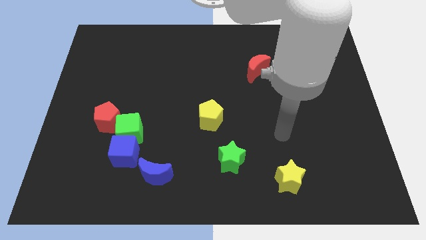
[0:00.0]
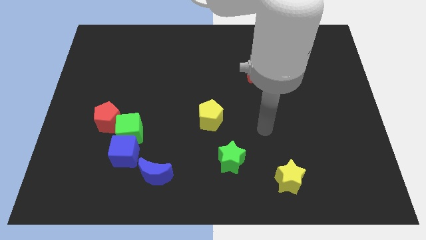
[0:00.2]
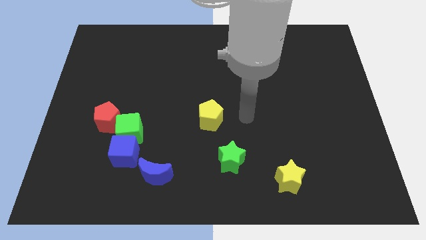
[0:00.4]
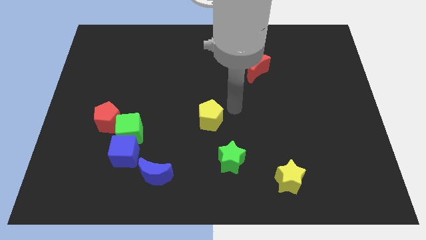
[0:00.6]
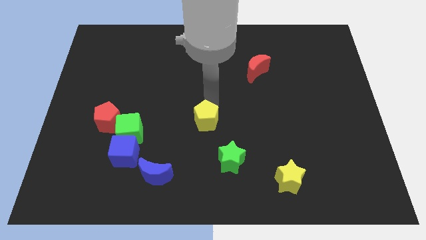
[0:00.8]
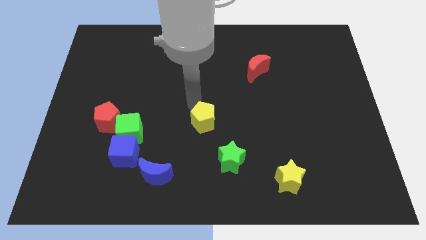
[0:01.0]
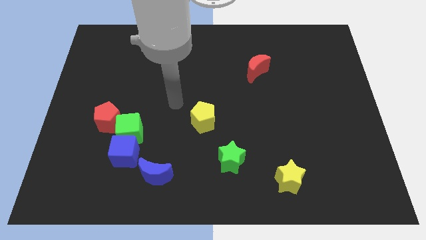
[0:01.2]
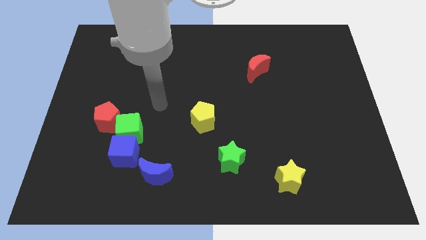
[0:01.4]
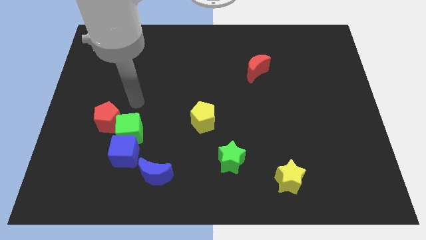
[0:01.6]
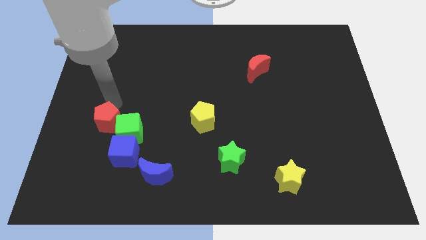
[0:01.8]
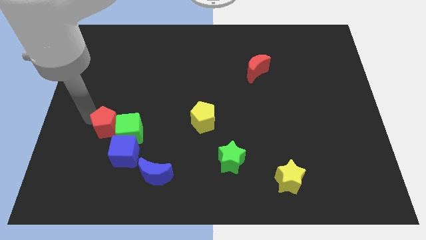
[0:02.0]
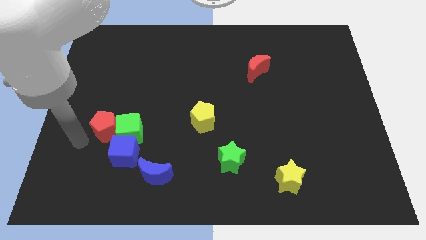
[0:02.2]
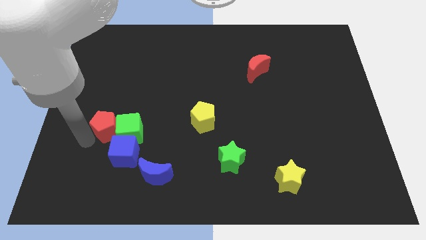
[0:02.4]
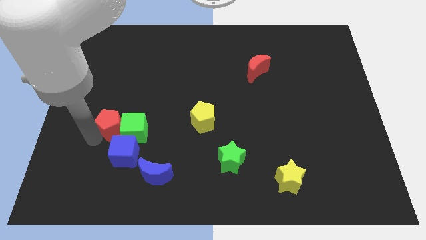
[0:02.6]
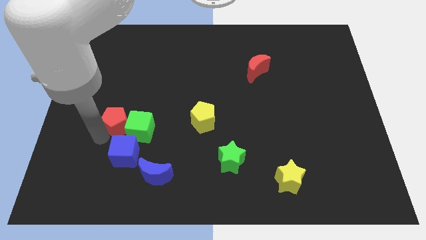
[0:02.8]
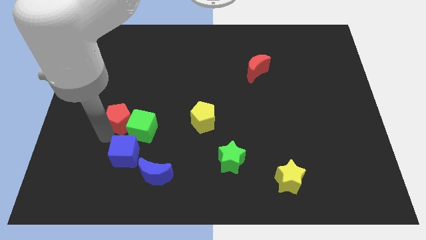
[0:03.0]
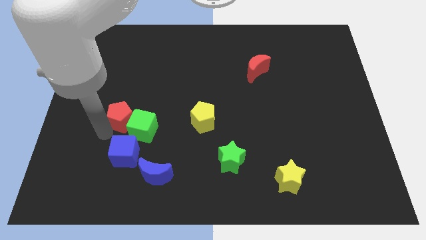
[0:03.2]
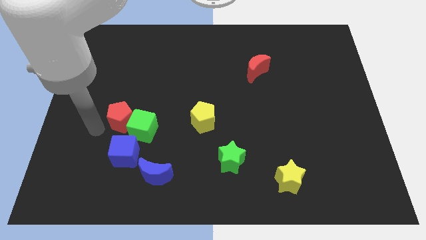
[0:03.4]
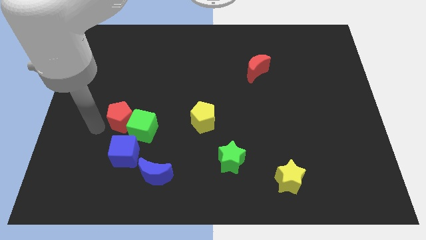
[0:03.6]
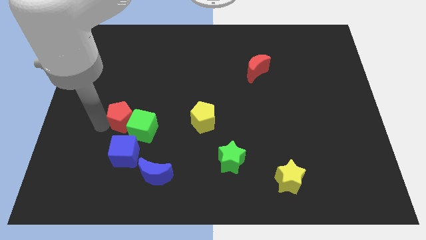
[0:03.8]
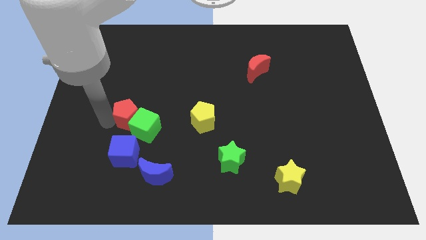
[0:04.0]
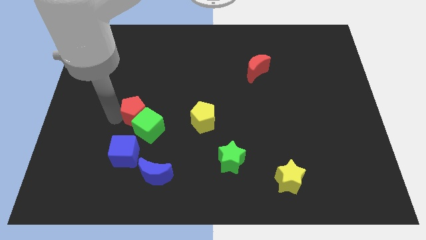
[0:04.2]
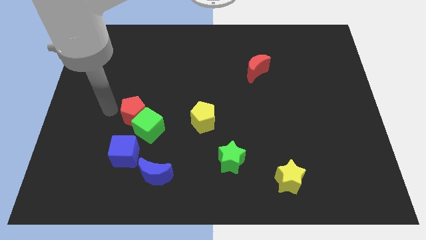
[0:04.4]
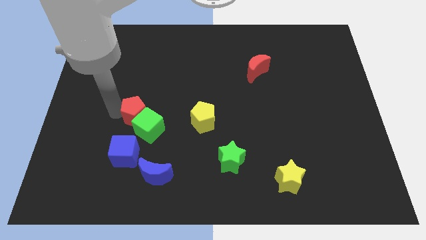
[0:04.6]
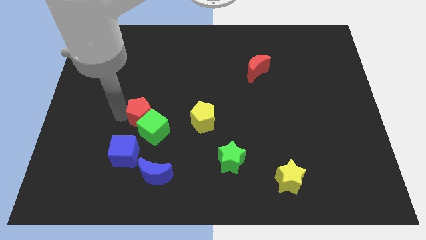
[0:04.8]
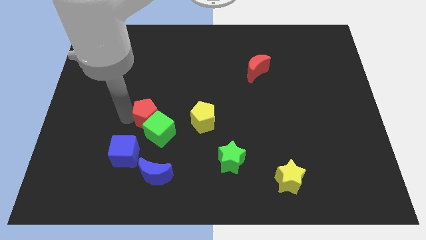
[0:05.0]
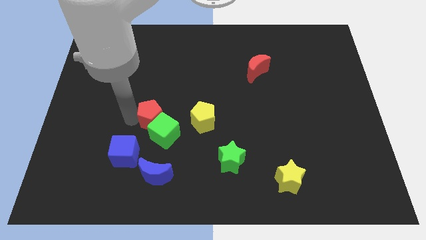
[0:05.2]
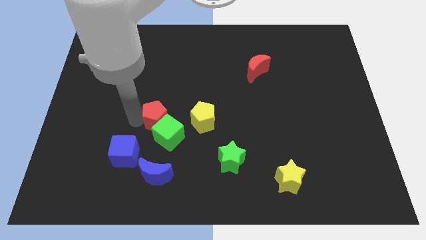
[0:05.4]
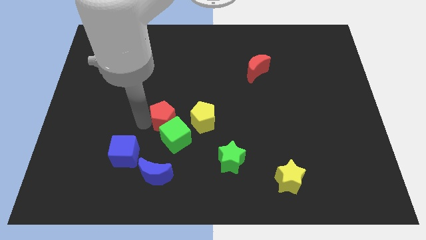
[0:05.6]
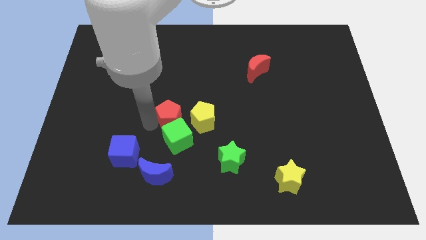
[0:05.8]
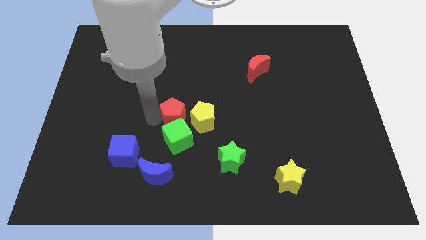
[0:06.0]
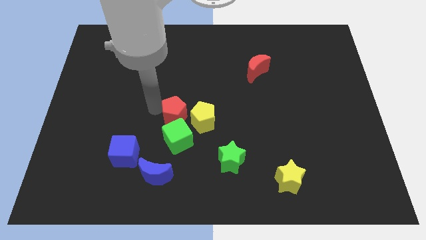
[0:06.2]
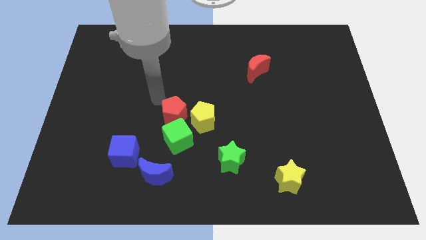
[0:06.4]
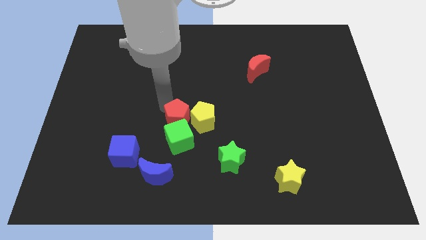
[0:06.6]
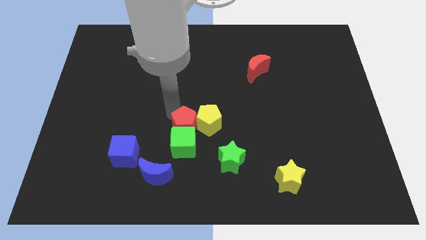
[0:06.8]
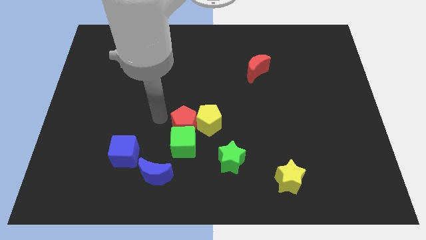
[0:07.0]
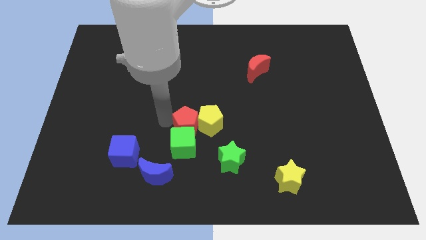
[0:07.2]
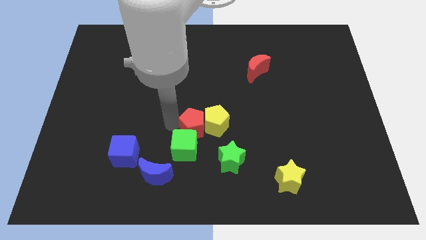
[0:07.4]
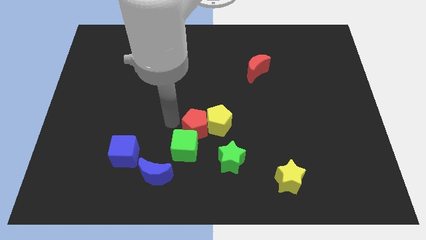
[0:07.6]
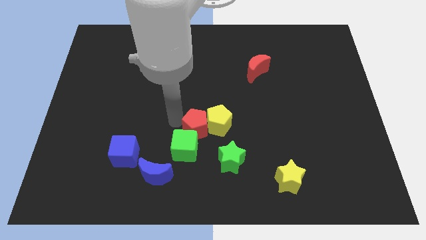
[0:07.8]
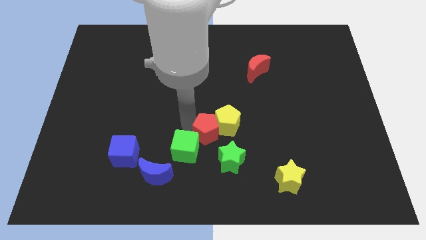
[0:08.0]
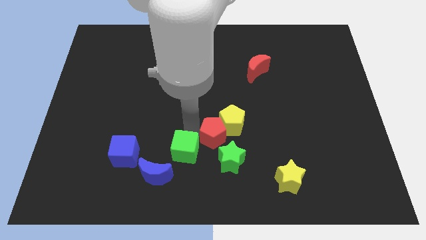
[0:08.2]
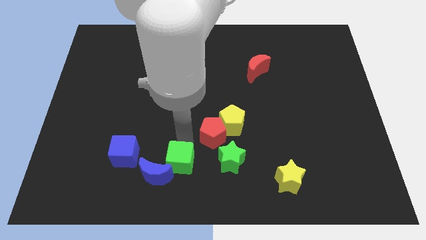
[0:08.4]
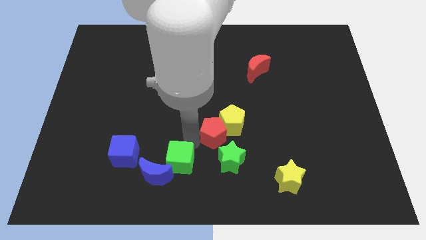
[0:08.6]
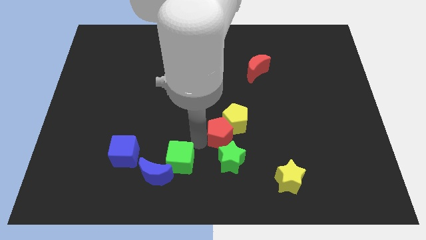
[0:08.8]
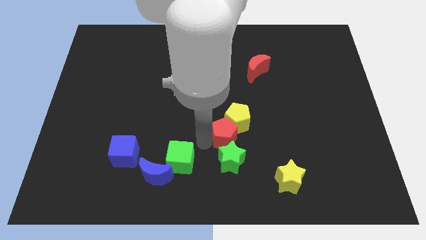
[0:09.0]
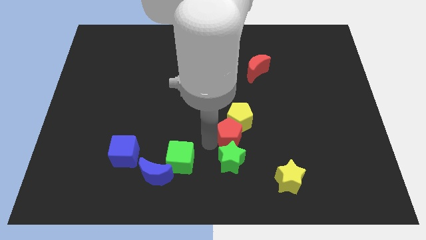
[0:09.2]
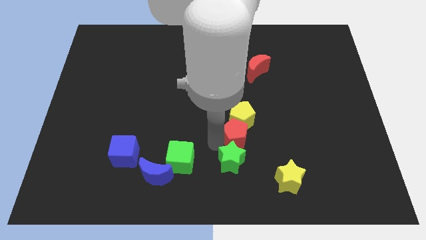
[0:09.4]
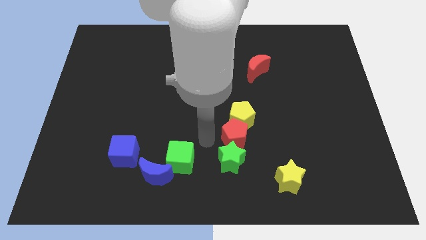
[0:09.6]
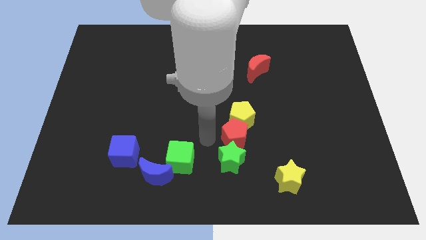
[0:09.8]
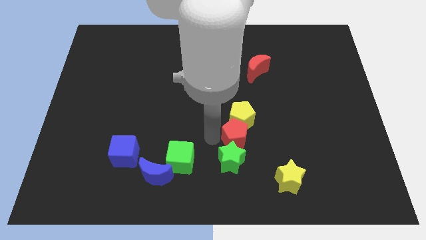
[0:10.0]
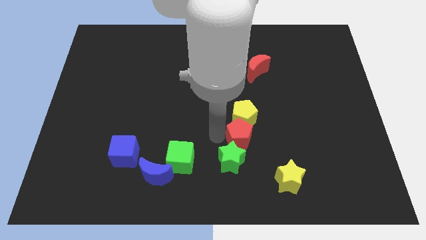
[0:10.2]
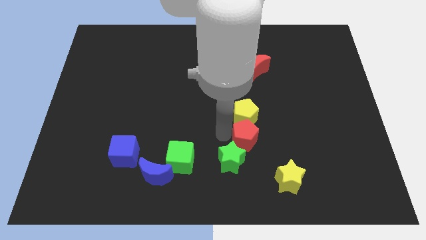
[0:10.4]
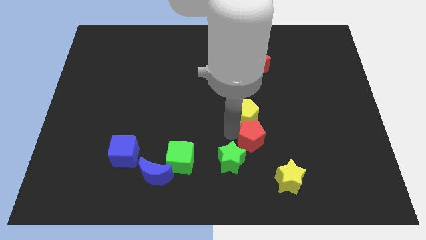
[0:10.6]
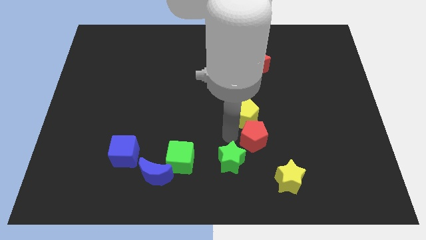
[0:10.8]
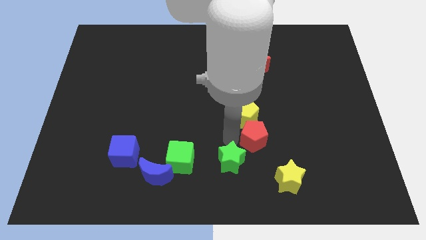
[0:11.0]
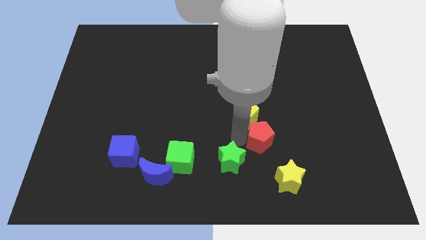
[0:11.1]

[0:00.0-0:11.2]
slide the red pentagon above the yellow star

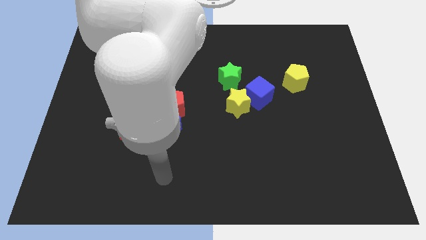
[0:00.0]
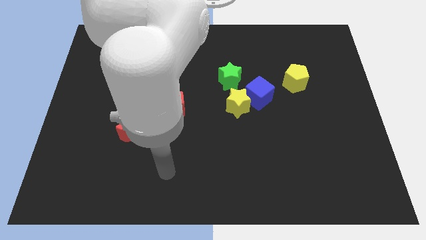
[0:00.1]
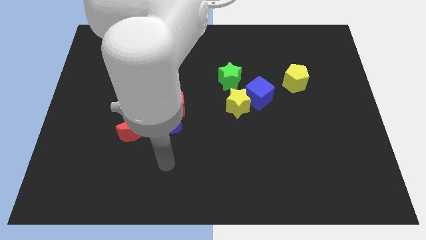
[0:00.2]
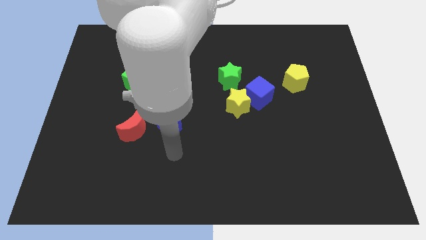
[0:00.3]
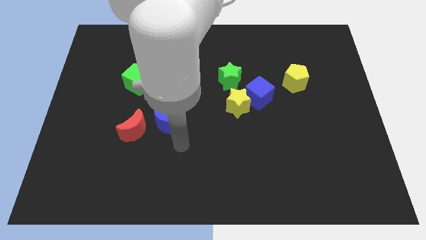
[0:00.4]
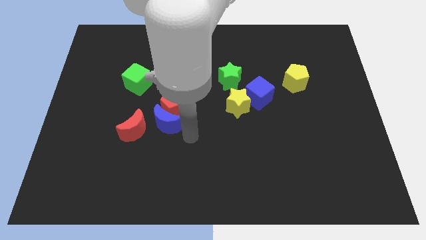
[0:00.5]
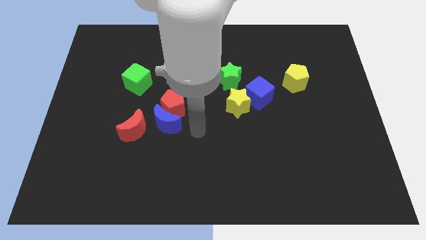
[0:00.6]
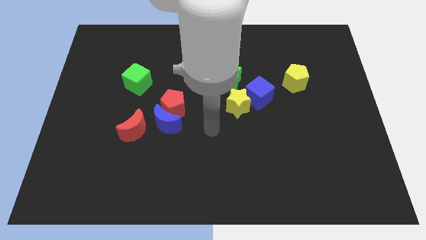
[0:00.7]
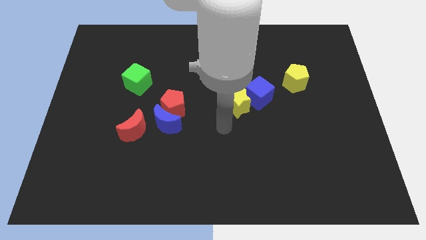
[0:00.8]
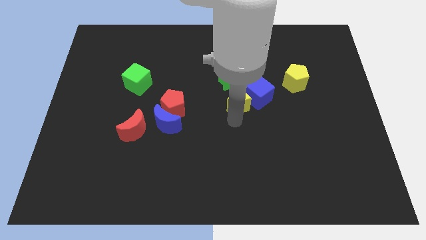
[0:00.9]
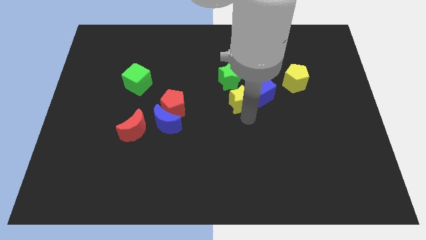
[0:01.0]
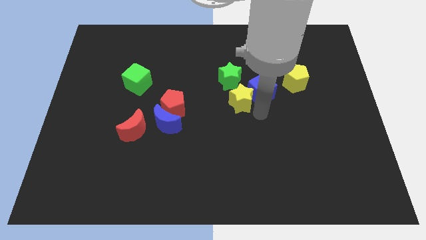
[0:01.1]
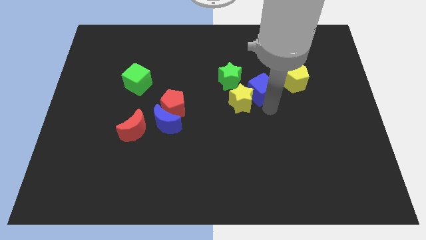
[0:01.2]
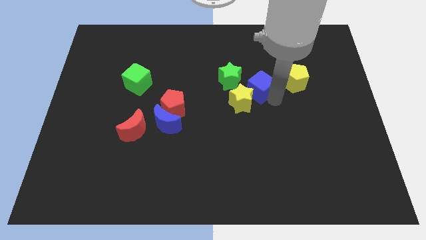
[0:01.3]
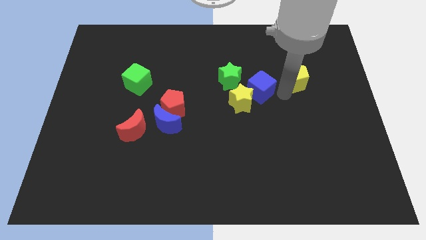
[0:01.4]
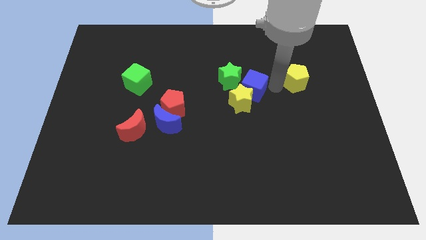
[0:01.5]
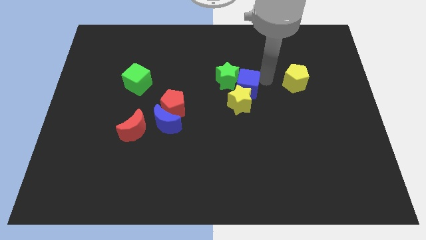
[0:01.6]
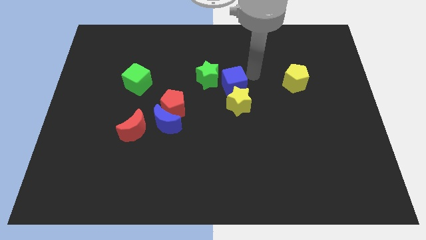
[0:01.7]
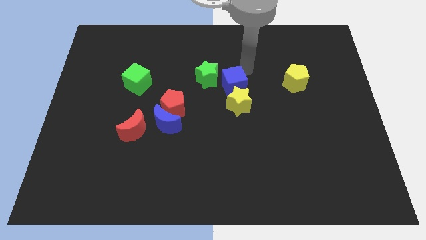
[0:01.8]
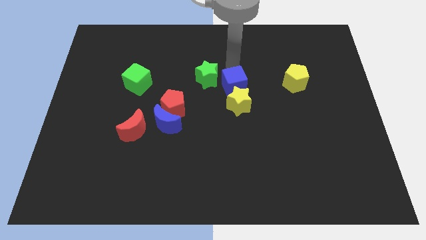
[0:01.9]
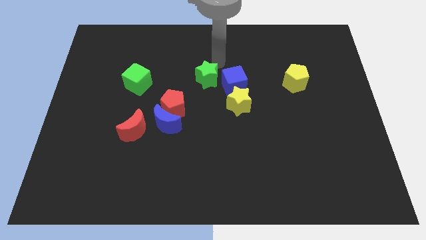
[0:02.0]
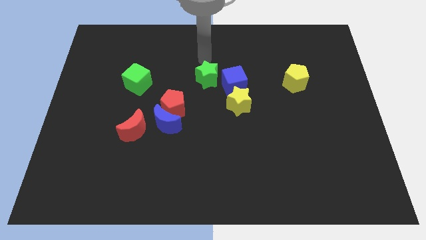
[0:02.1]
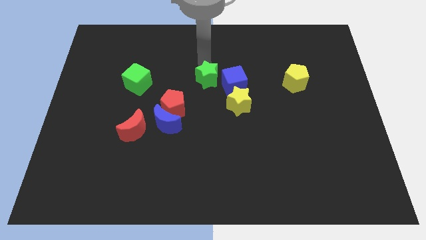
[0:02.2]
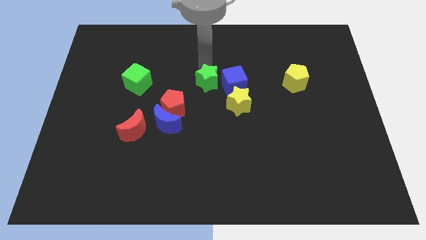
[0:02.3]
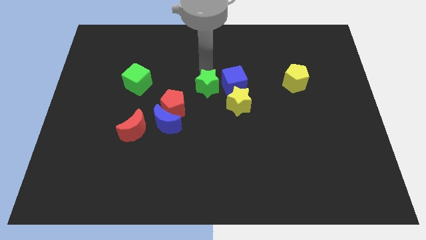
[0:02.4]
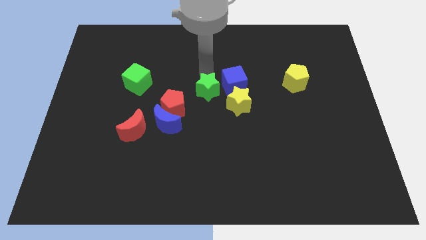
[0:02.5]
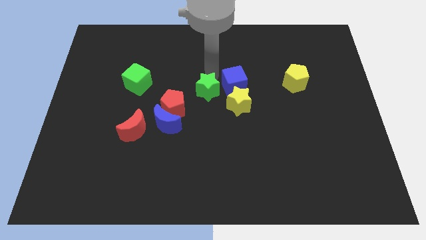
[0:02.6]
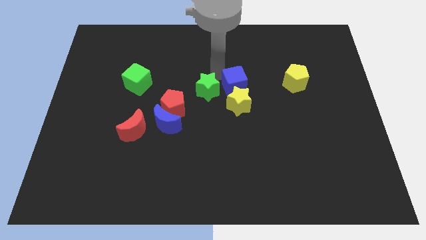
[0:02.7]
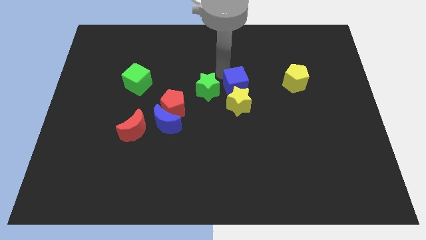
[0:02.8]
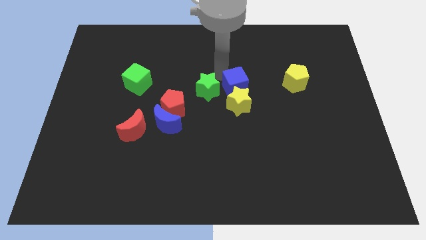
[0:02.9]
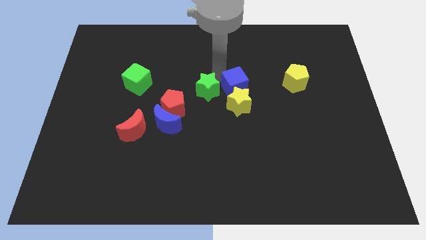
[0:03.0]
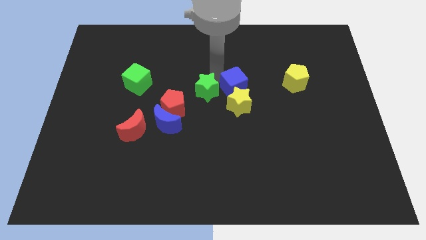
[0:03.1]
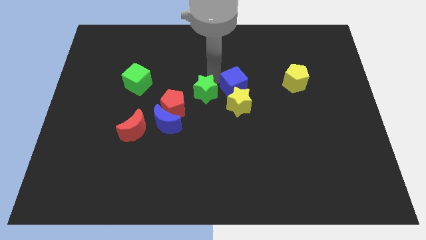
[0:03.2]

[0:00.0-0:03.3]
slide the green star to the top right side of the blue moon
